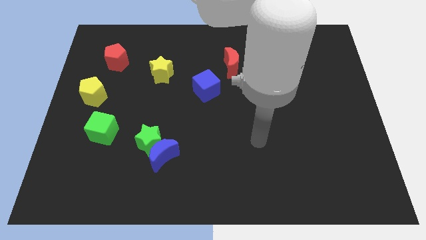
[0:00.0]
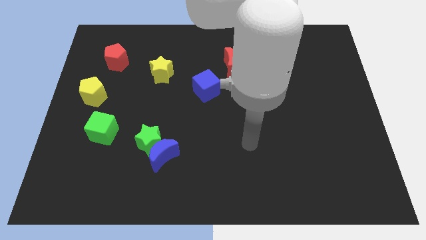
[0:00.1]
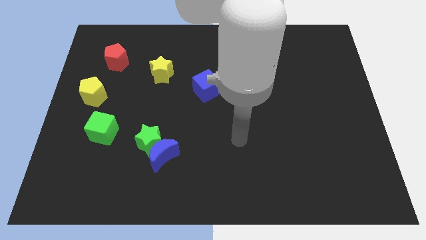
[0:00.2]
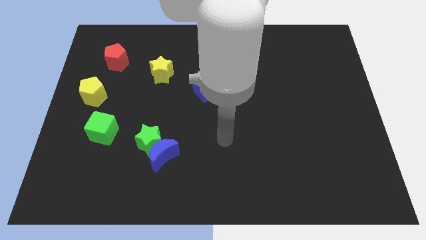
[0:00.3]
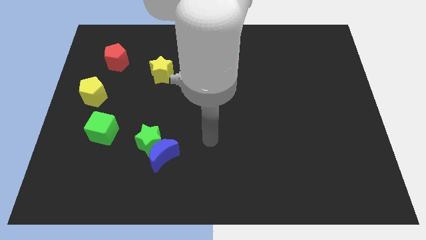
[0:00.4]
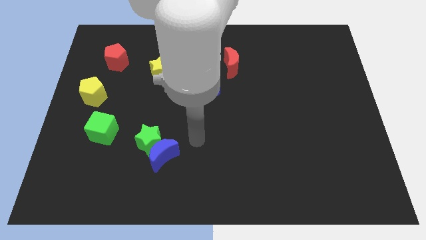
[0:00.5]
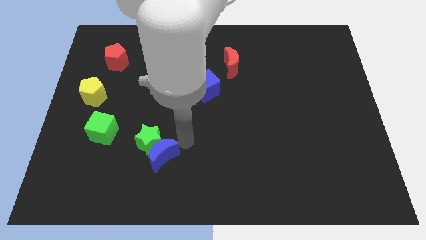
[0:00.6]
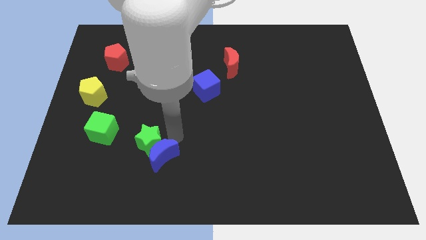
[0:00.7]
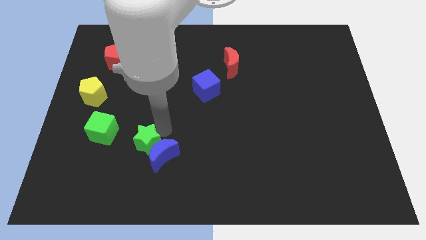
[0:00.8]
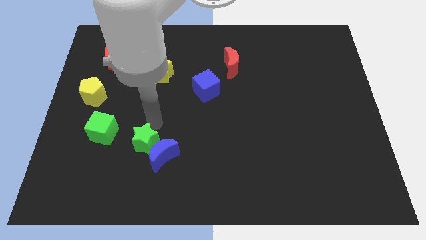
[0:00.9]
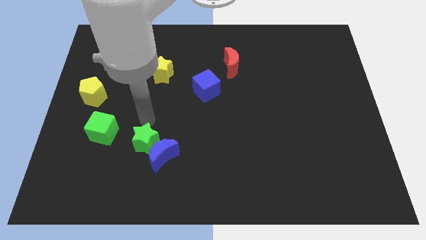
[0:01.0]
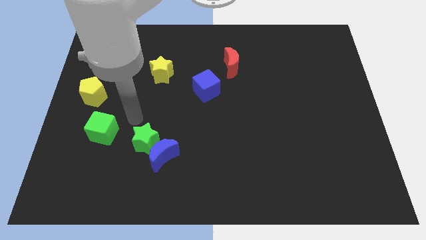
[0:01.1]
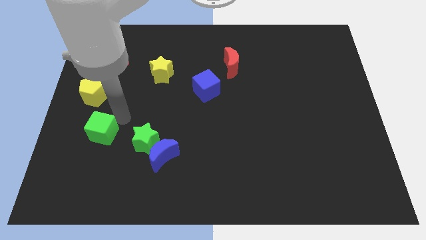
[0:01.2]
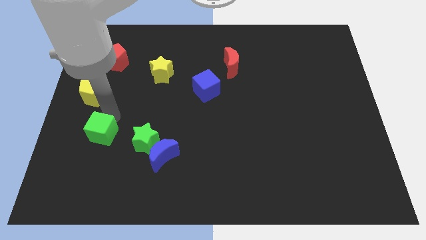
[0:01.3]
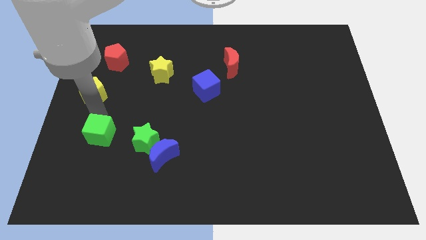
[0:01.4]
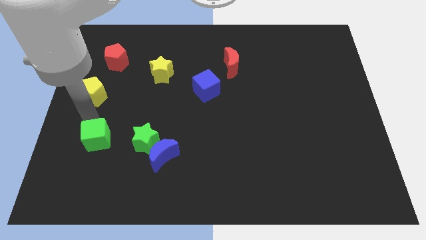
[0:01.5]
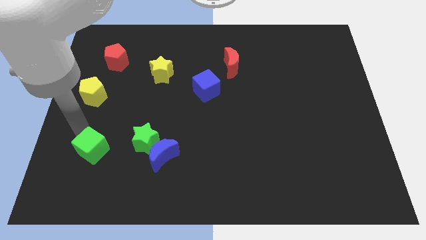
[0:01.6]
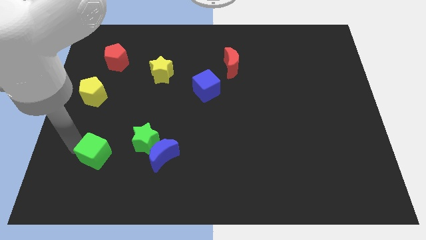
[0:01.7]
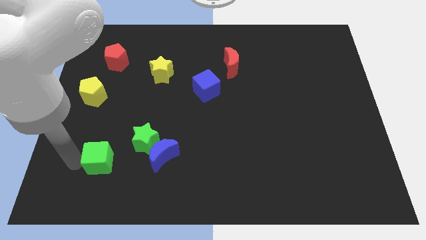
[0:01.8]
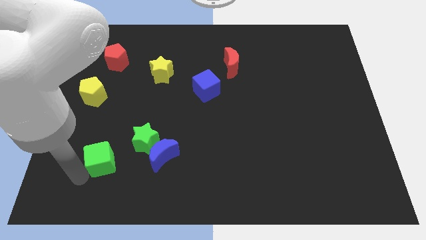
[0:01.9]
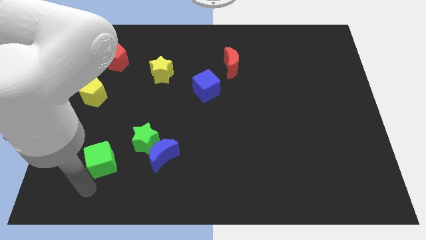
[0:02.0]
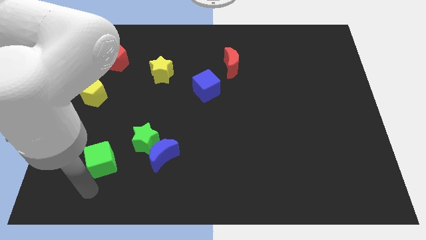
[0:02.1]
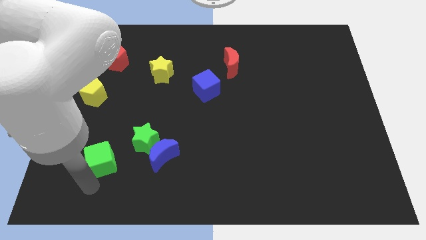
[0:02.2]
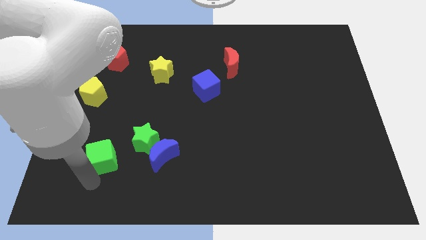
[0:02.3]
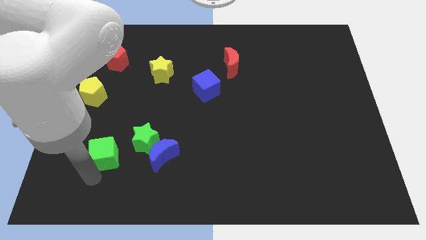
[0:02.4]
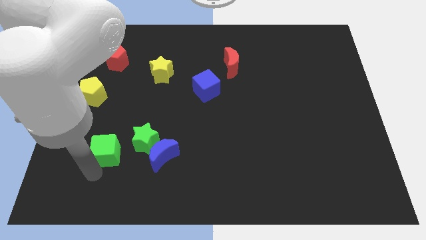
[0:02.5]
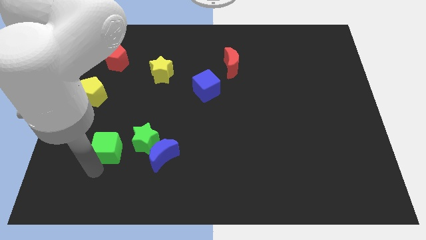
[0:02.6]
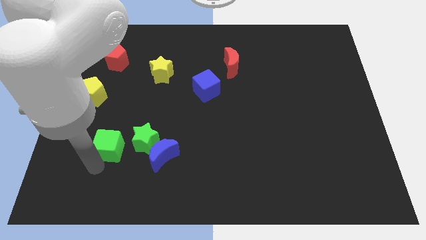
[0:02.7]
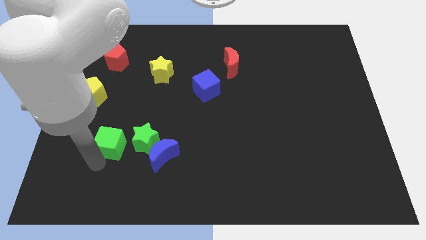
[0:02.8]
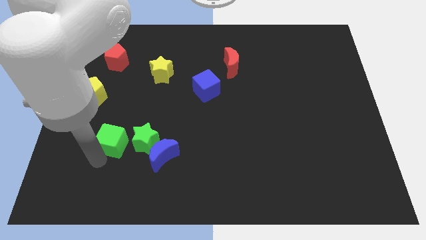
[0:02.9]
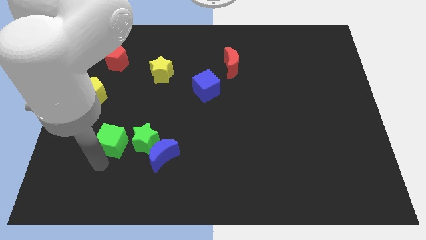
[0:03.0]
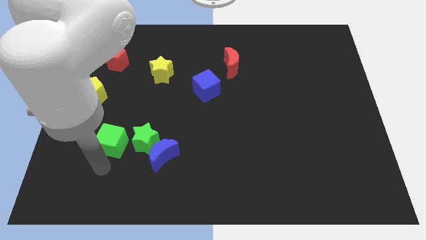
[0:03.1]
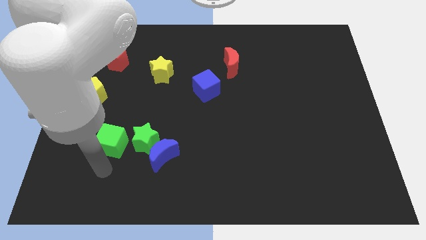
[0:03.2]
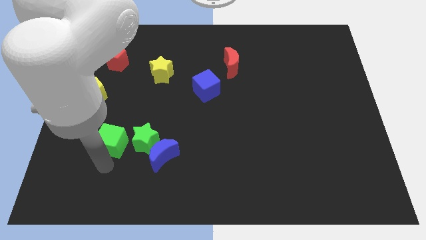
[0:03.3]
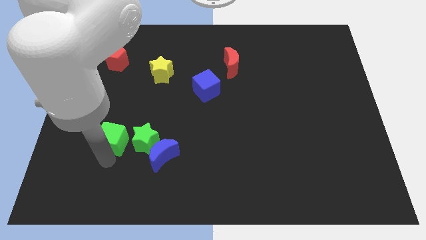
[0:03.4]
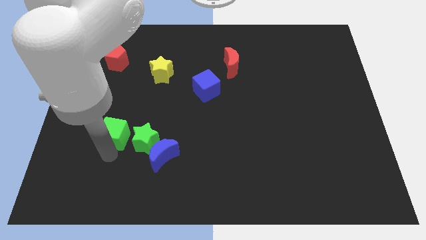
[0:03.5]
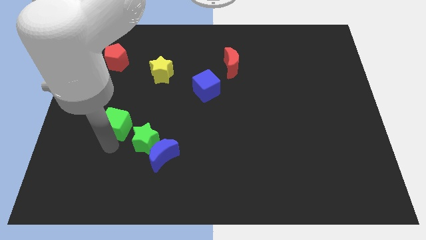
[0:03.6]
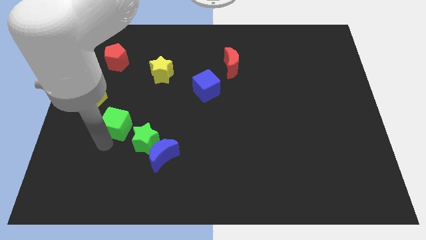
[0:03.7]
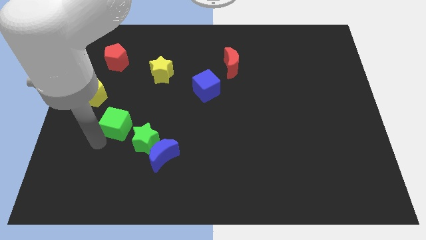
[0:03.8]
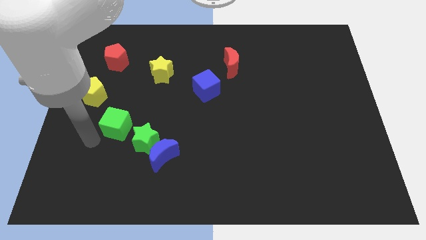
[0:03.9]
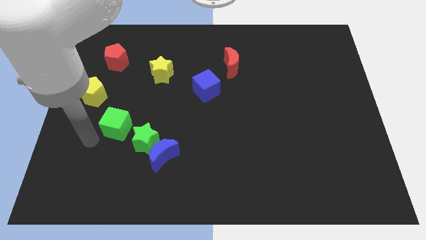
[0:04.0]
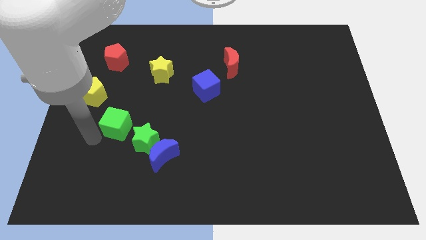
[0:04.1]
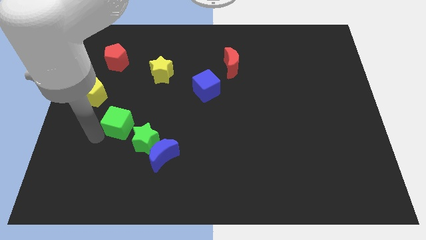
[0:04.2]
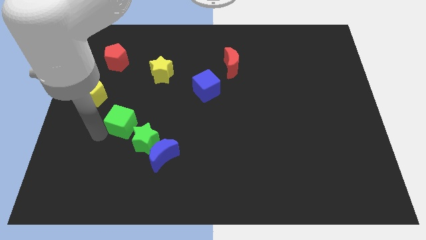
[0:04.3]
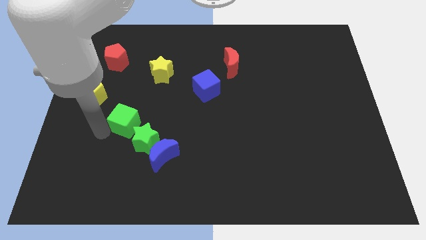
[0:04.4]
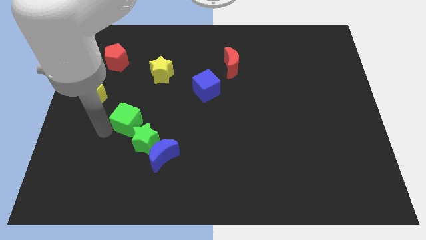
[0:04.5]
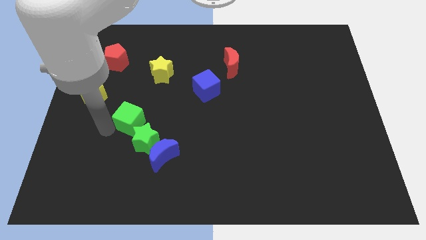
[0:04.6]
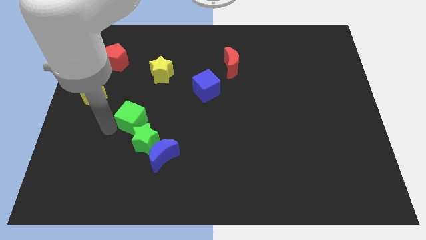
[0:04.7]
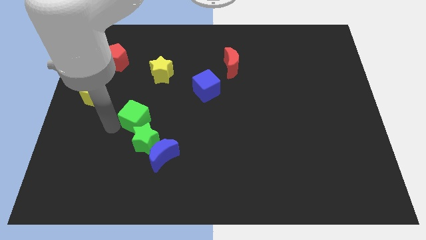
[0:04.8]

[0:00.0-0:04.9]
slightly push the green cube up and then right

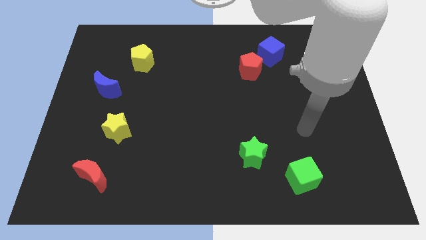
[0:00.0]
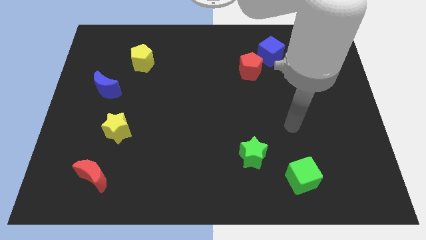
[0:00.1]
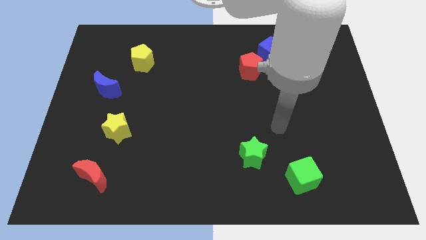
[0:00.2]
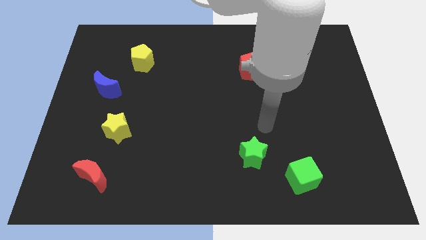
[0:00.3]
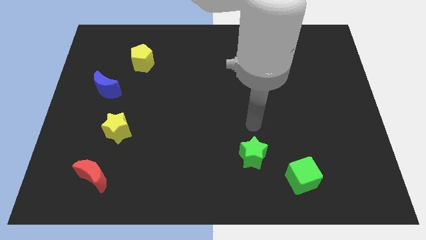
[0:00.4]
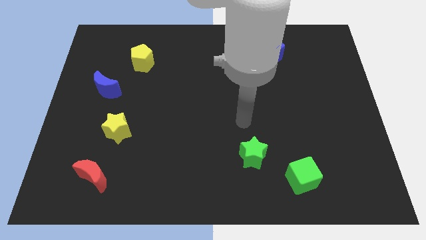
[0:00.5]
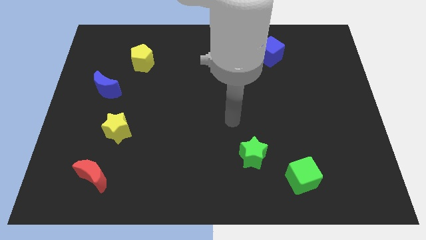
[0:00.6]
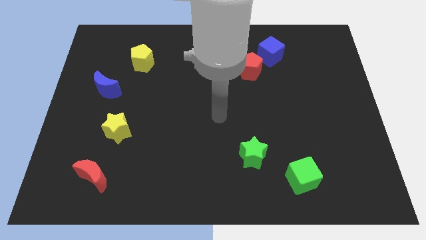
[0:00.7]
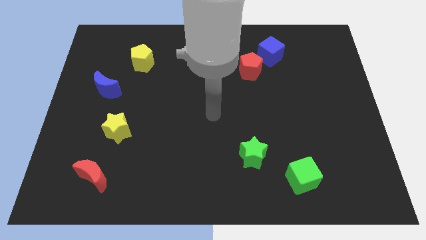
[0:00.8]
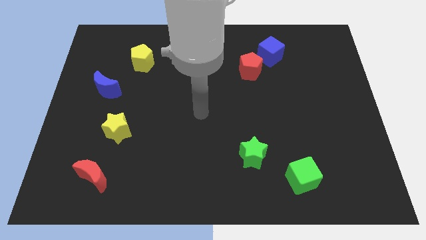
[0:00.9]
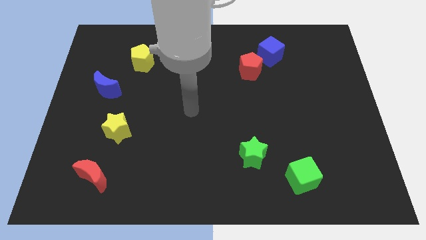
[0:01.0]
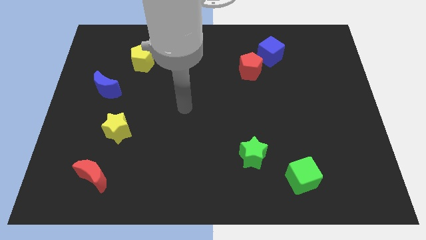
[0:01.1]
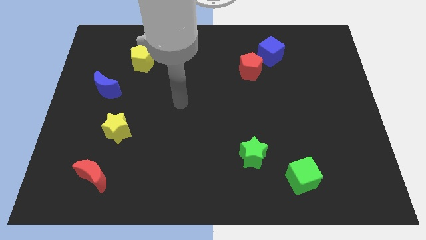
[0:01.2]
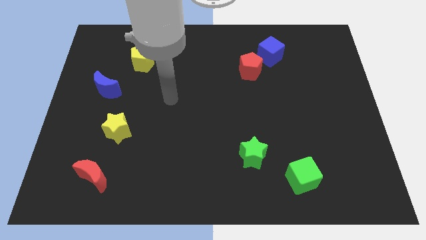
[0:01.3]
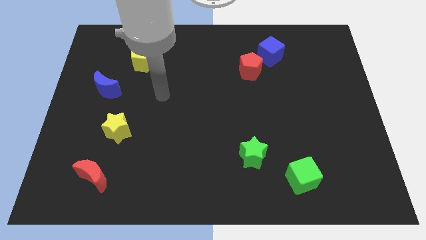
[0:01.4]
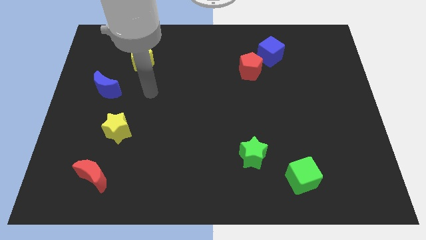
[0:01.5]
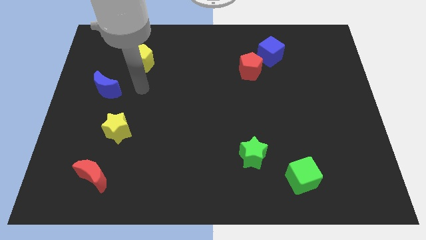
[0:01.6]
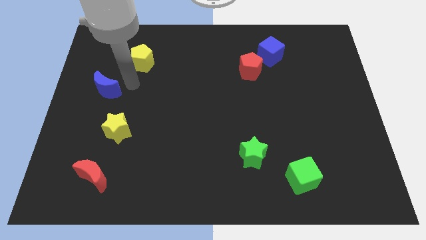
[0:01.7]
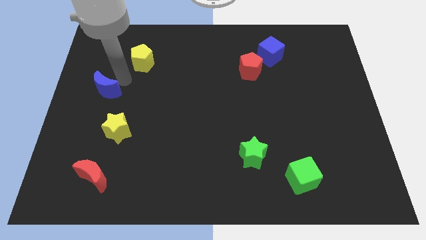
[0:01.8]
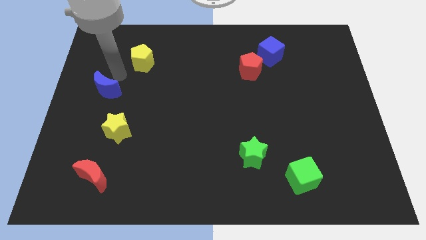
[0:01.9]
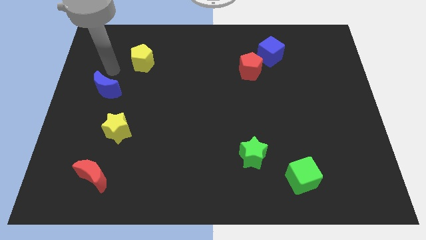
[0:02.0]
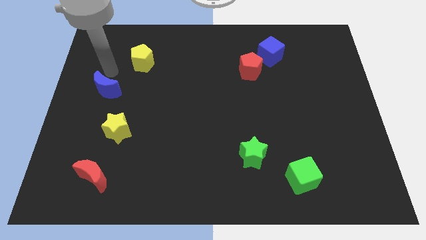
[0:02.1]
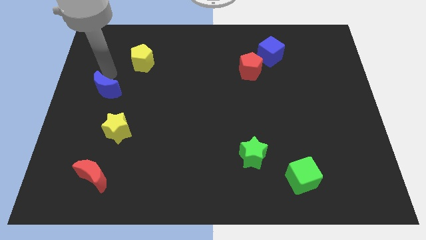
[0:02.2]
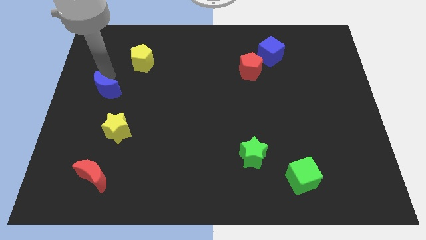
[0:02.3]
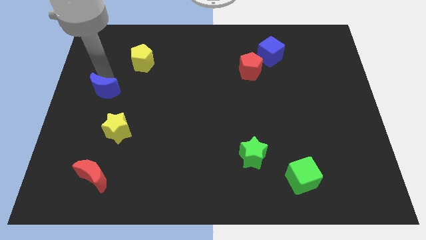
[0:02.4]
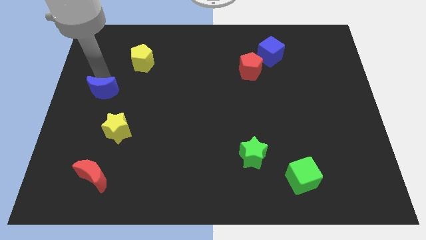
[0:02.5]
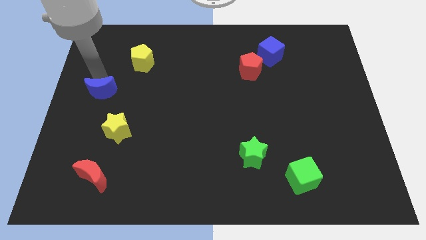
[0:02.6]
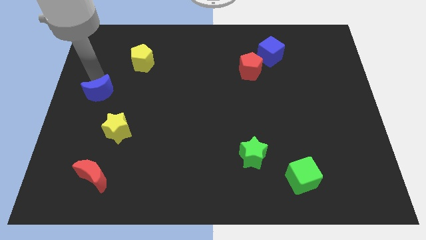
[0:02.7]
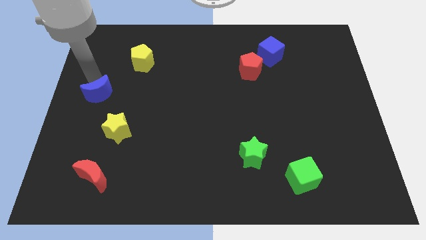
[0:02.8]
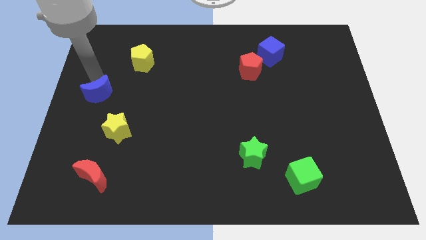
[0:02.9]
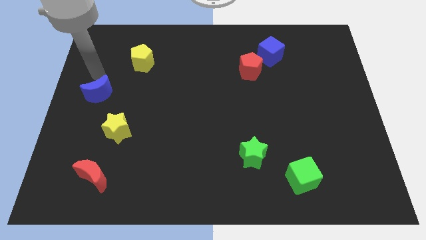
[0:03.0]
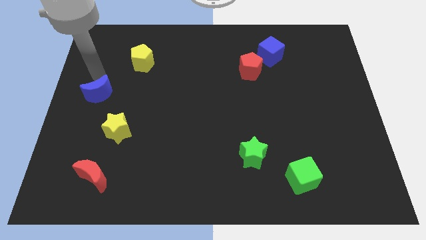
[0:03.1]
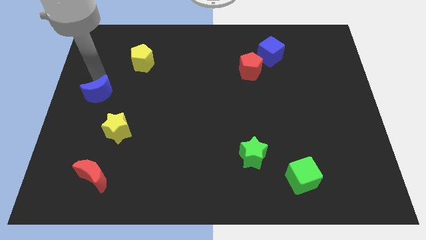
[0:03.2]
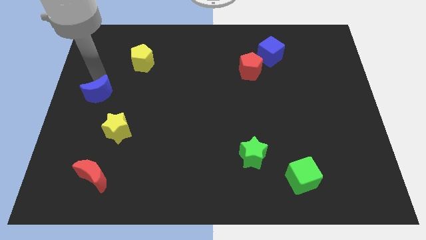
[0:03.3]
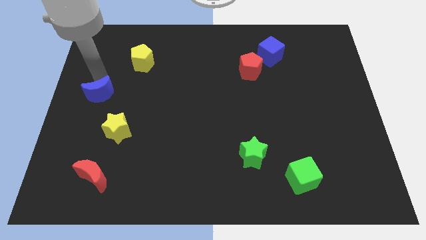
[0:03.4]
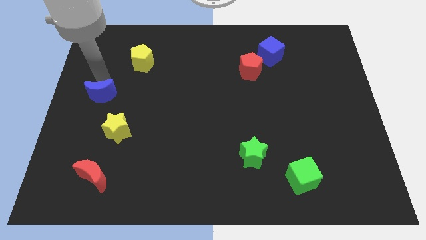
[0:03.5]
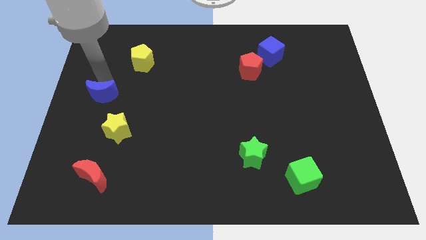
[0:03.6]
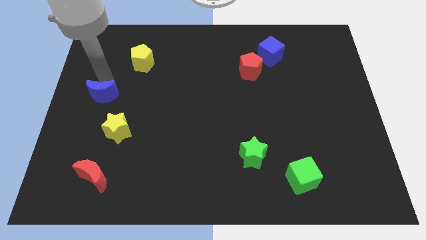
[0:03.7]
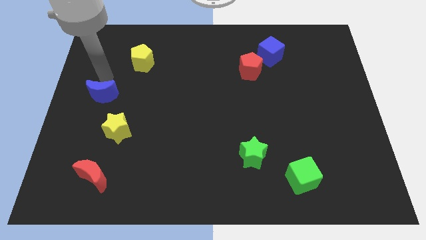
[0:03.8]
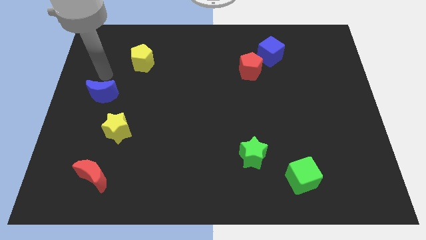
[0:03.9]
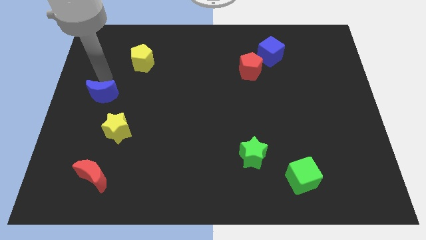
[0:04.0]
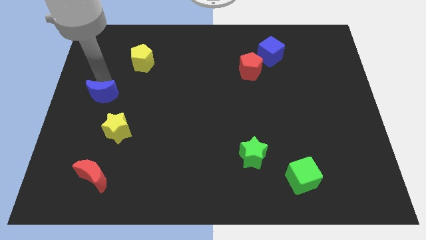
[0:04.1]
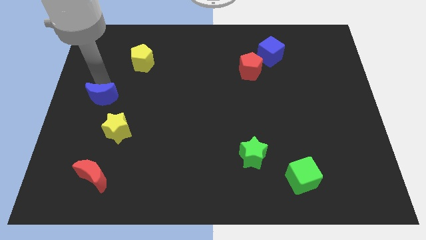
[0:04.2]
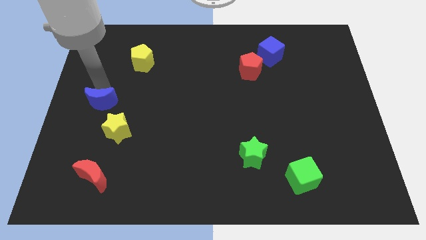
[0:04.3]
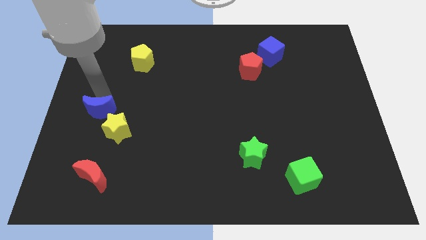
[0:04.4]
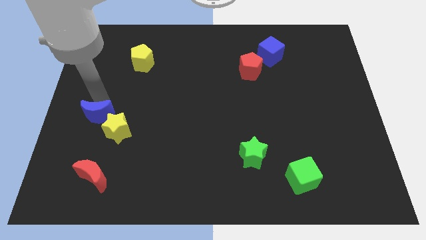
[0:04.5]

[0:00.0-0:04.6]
move the blue moon slightly downwards
